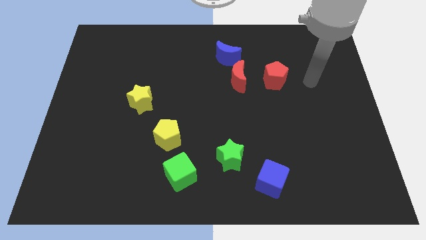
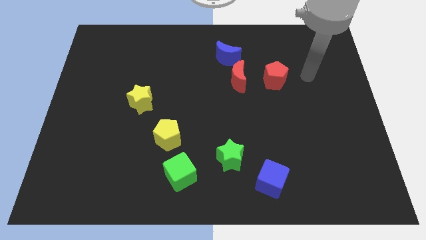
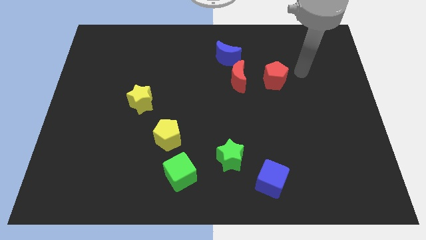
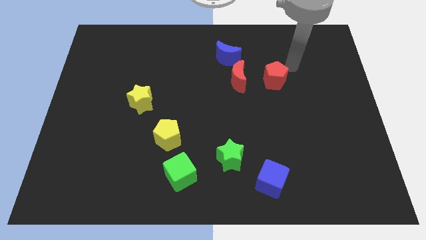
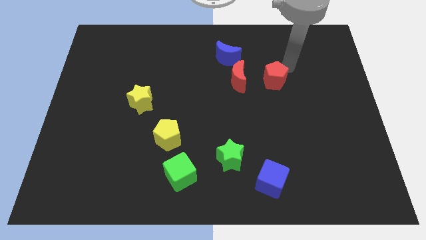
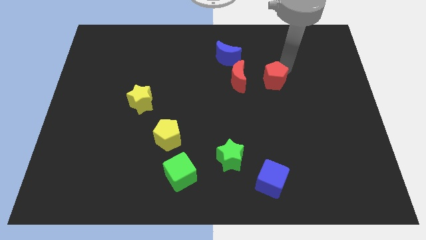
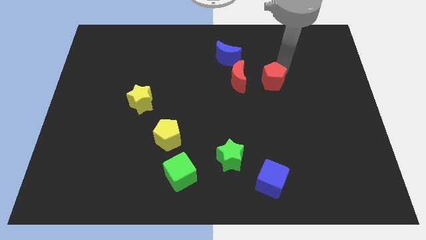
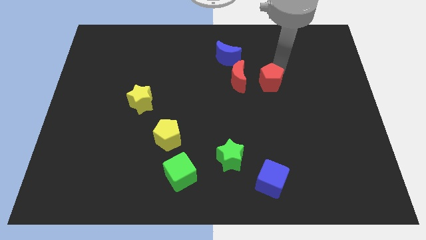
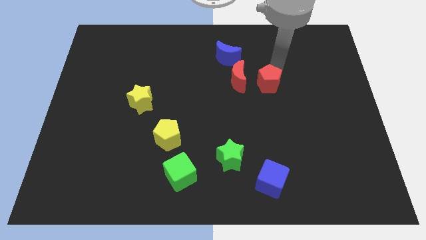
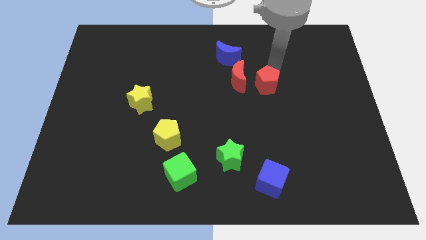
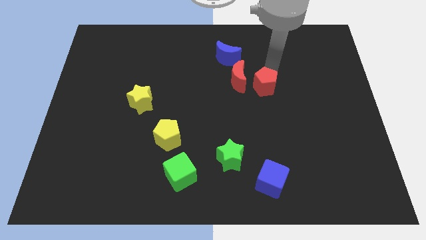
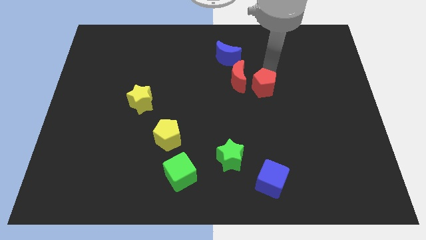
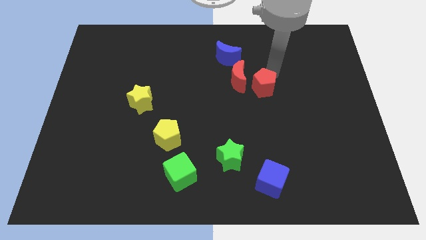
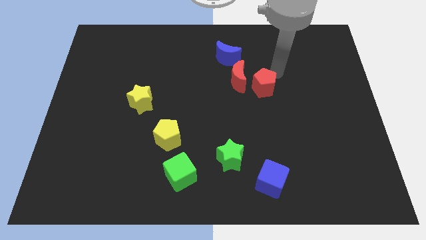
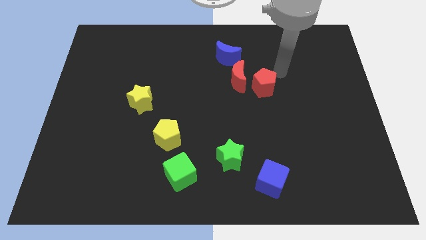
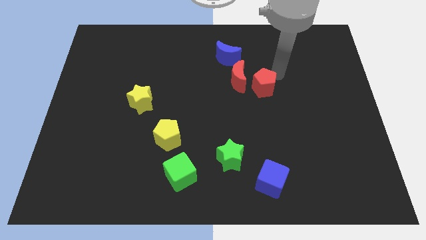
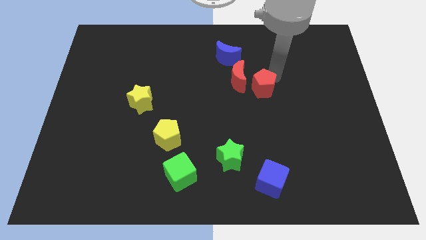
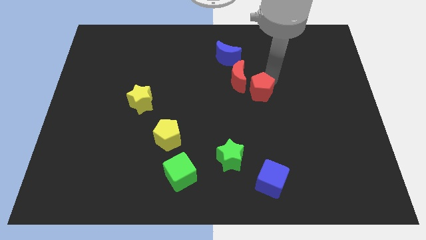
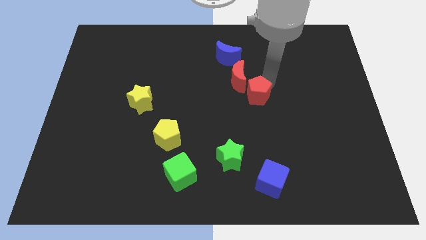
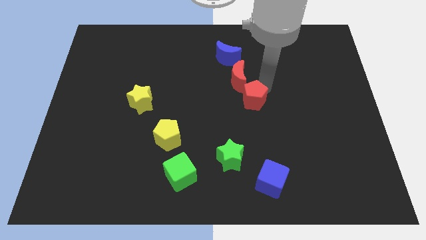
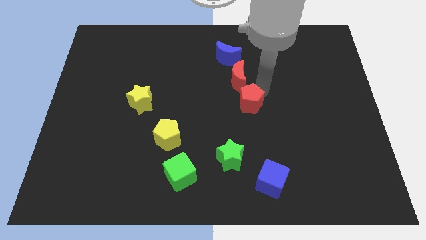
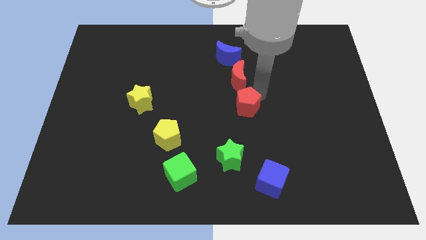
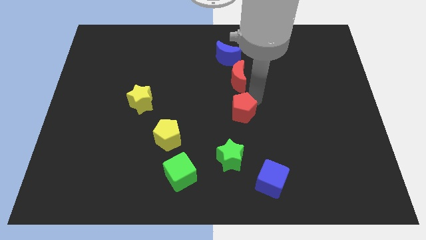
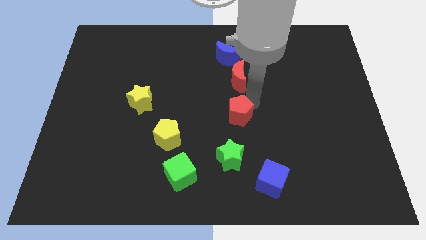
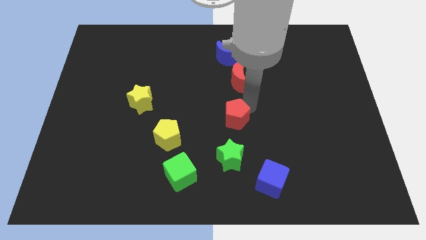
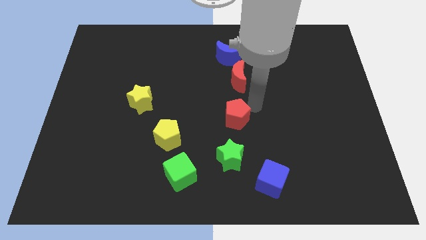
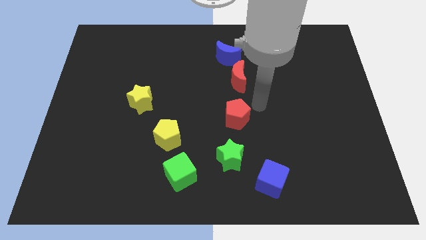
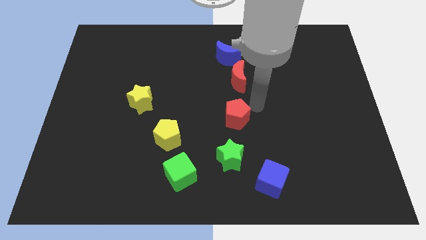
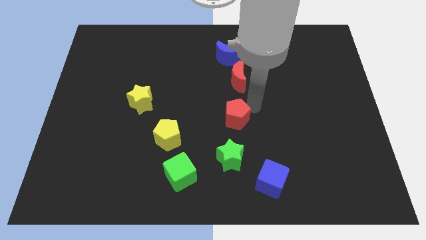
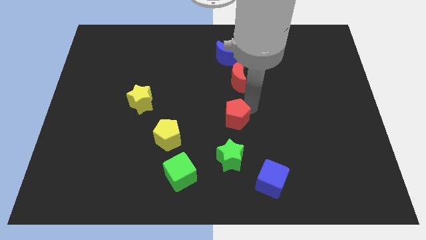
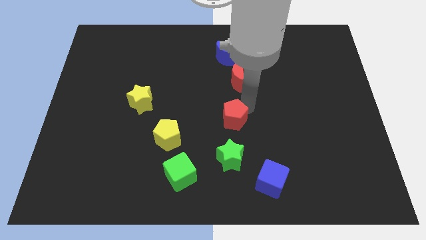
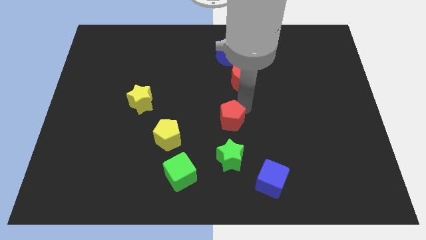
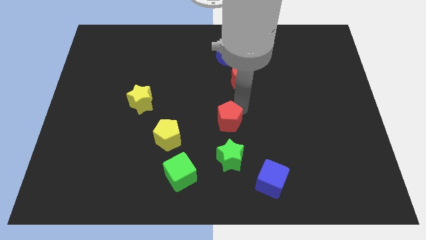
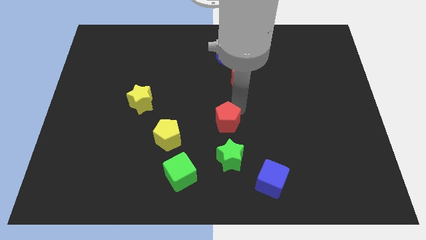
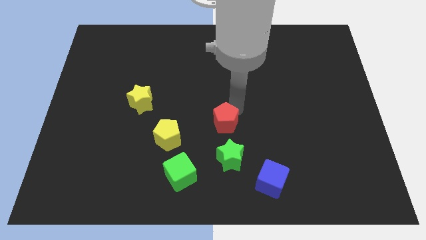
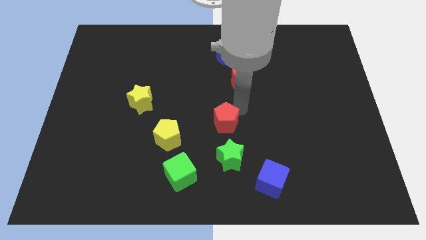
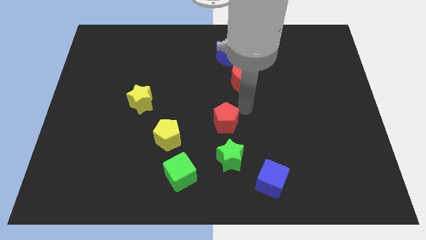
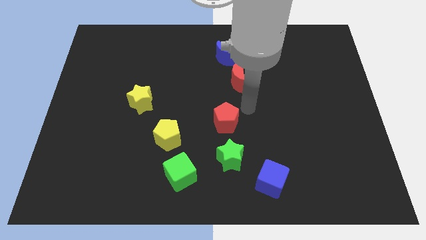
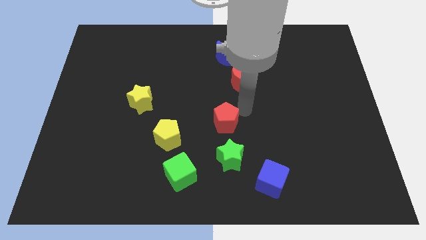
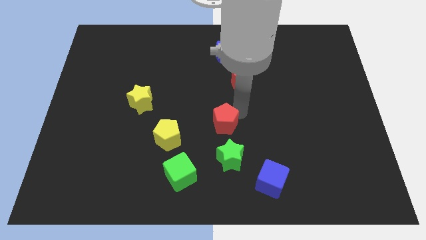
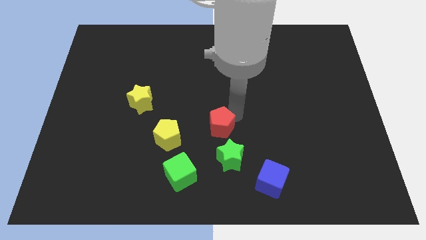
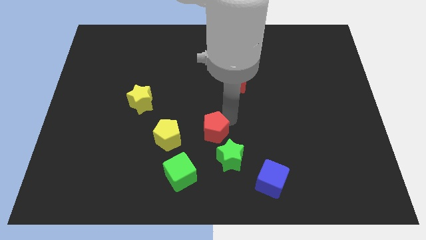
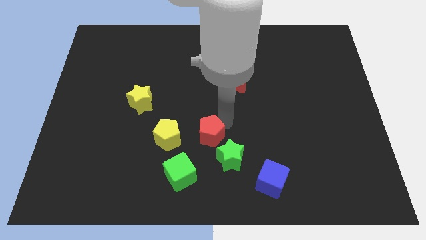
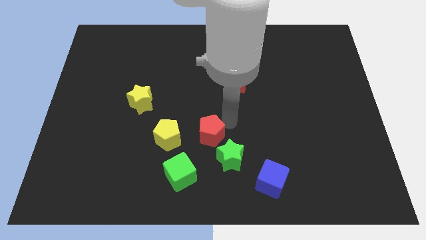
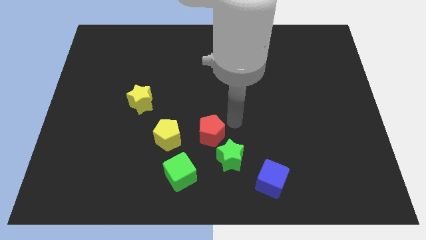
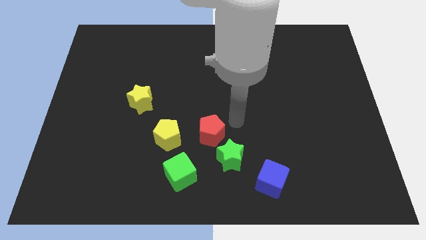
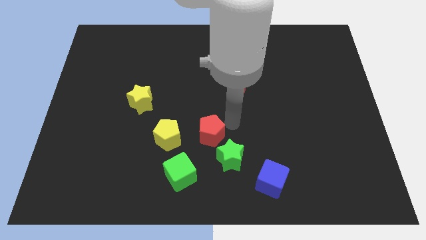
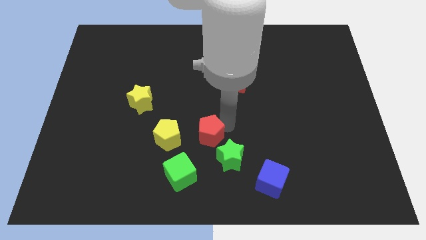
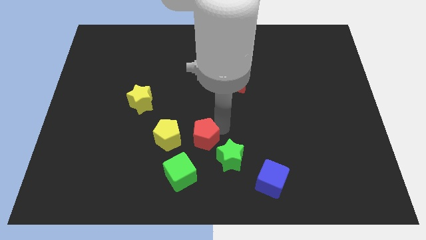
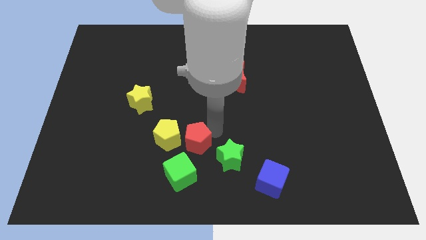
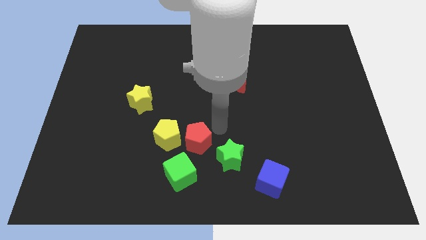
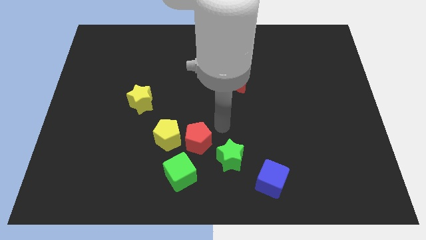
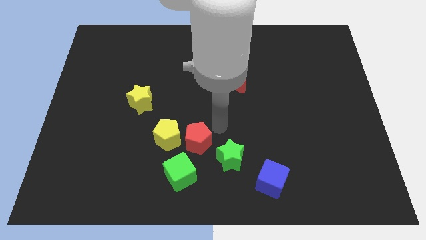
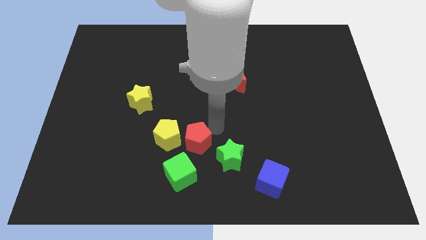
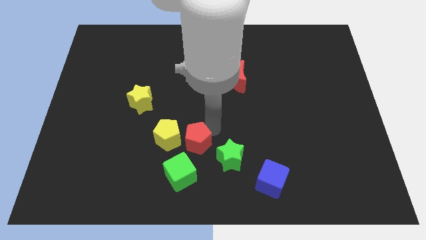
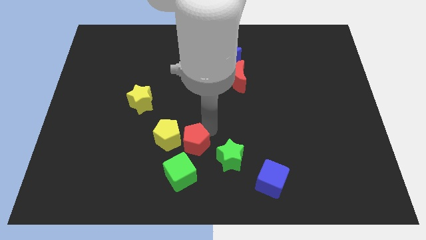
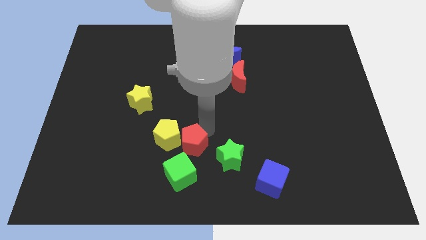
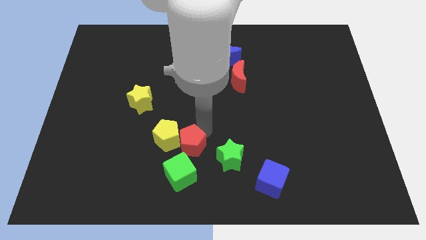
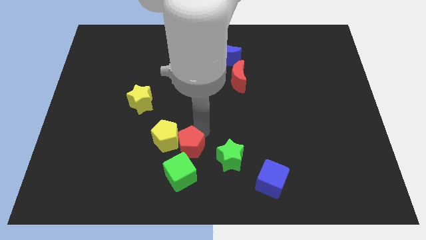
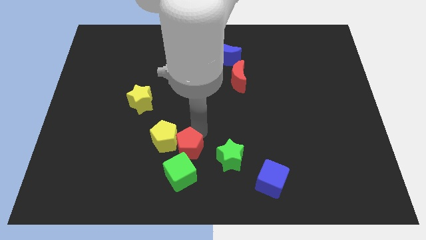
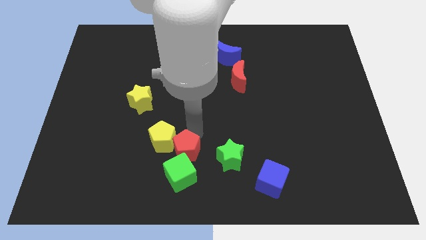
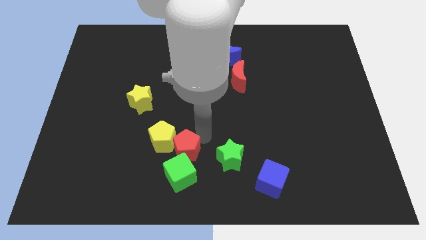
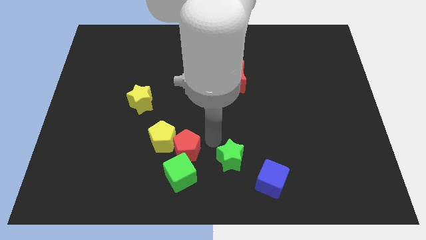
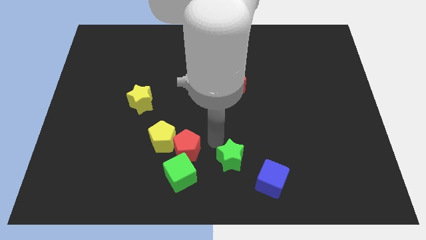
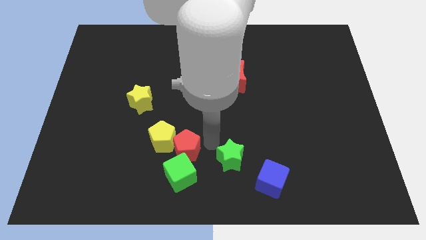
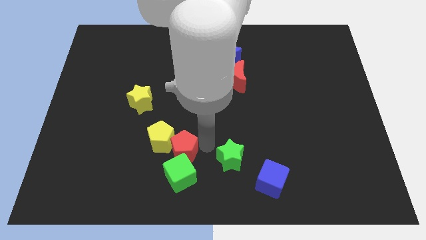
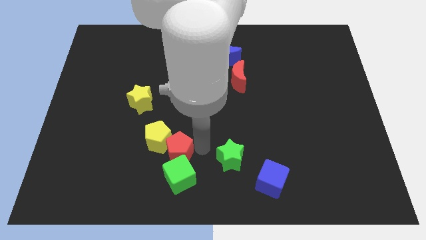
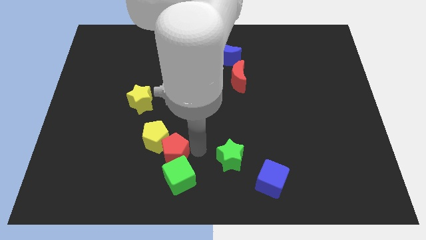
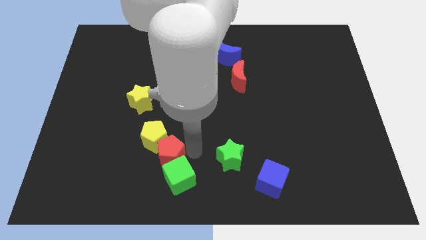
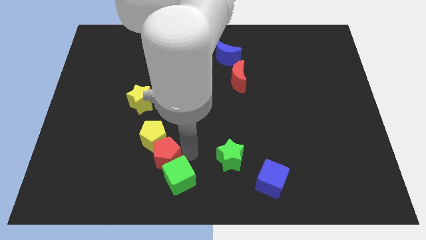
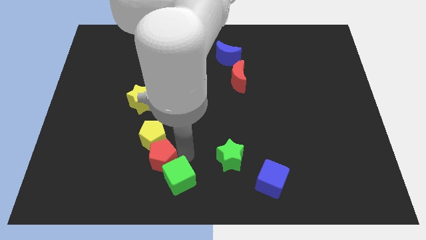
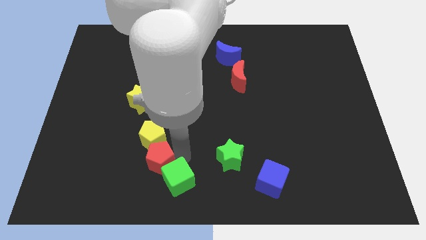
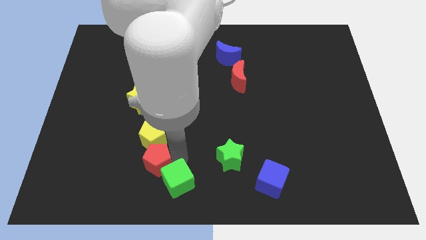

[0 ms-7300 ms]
push the red pentagon diagonally down and to the left of the yellow pentagon
